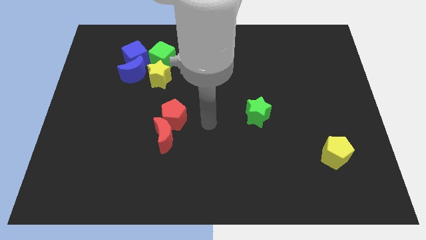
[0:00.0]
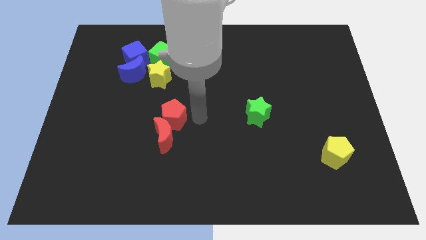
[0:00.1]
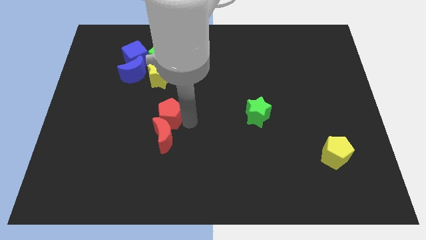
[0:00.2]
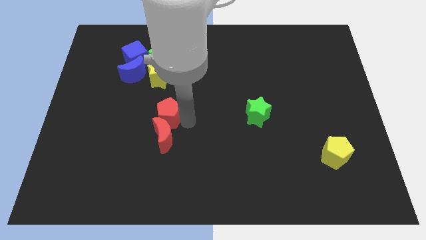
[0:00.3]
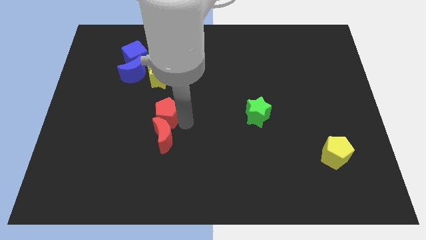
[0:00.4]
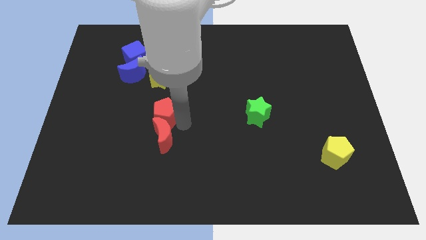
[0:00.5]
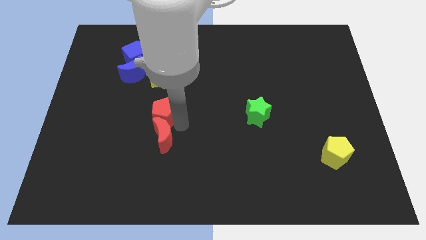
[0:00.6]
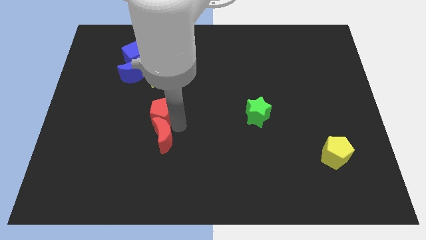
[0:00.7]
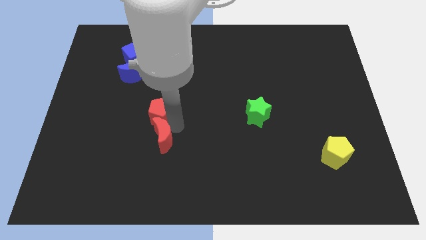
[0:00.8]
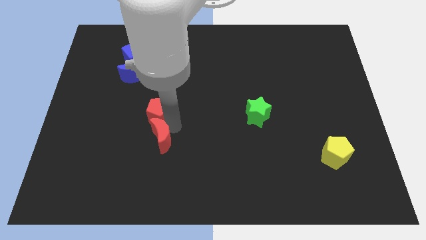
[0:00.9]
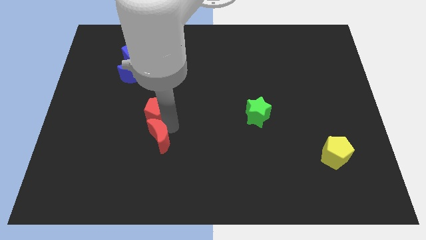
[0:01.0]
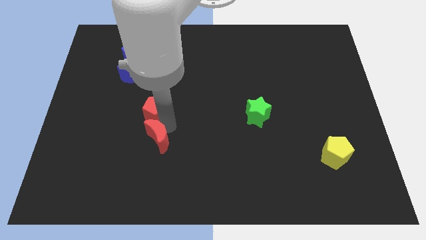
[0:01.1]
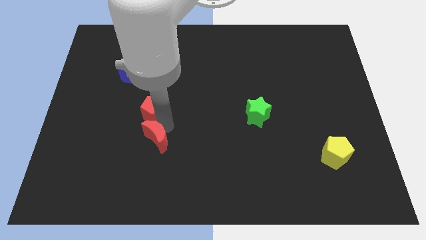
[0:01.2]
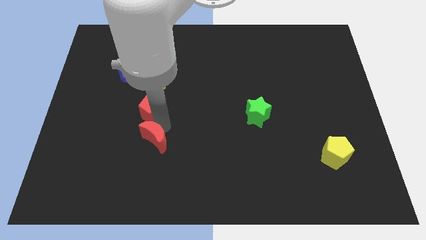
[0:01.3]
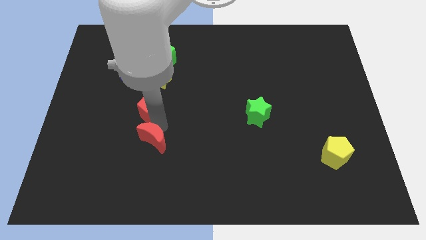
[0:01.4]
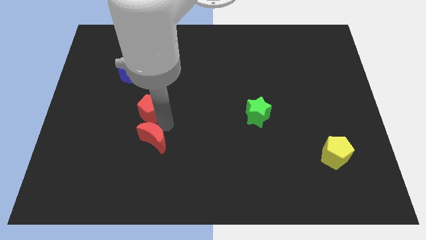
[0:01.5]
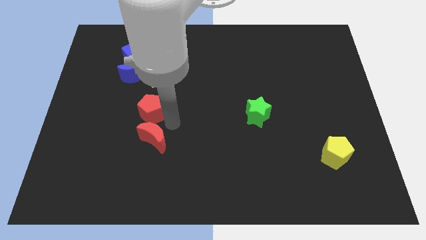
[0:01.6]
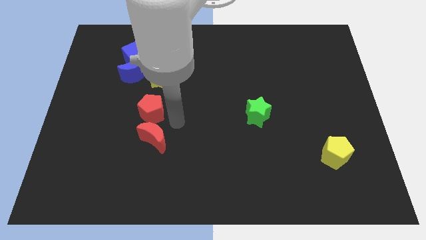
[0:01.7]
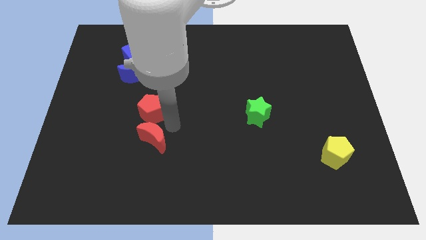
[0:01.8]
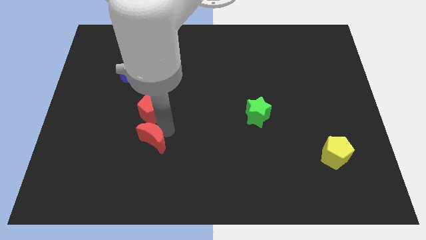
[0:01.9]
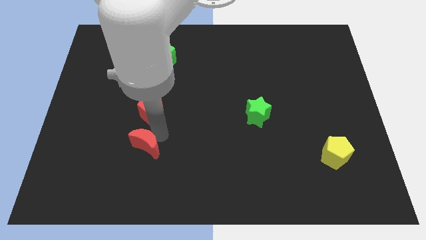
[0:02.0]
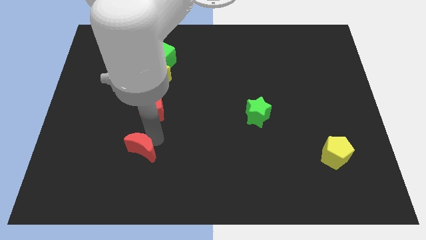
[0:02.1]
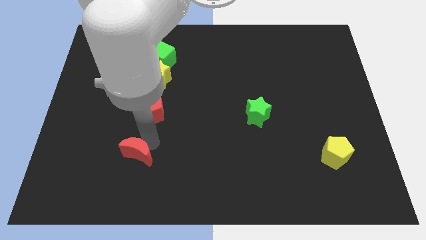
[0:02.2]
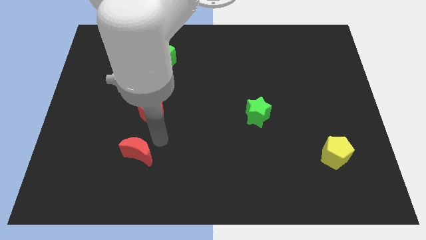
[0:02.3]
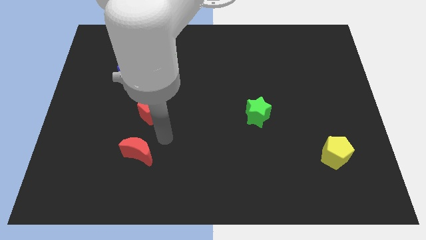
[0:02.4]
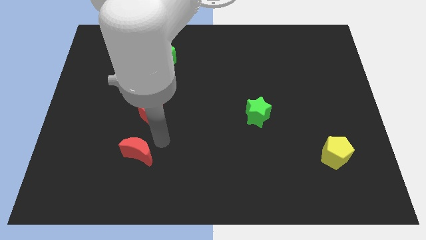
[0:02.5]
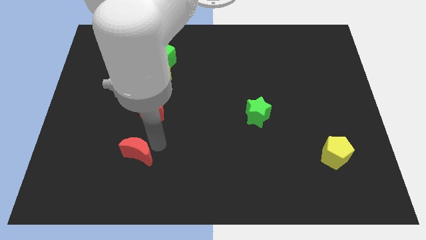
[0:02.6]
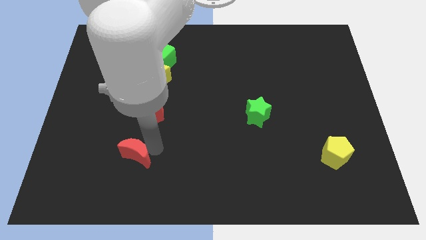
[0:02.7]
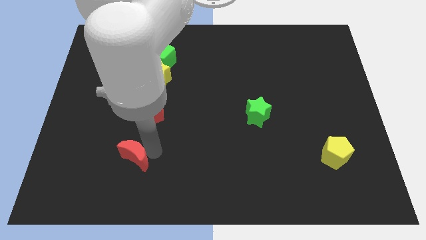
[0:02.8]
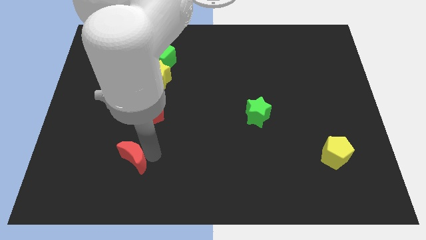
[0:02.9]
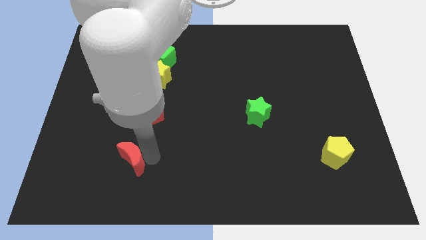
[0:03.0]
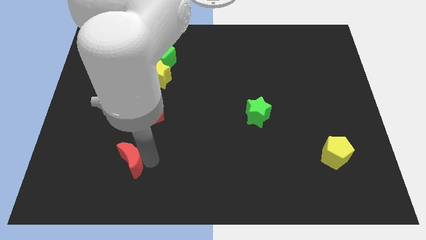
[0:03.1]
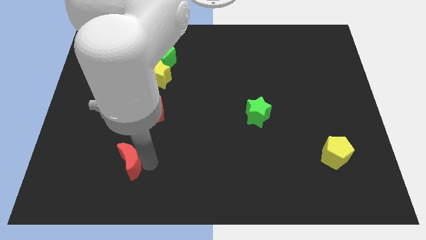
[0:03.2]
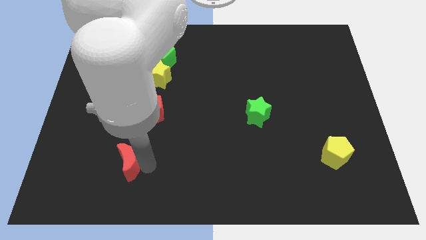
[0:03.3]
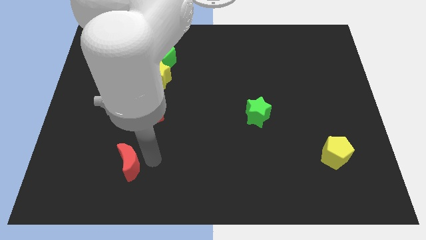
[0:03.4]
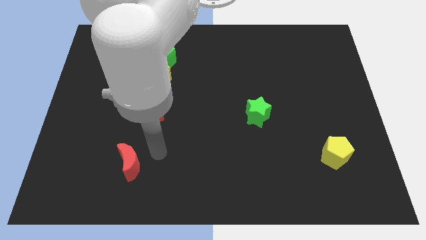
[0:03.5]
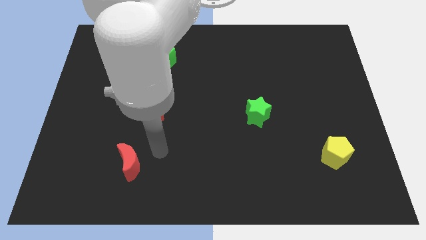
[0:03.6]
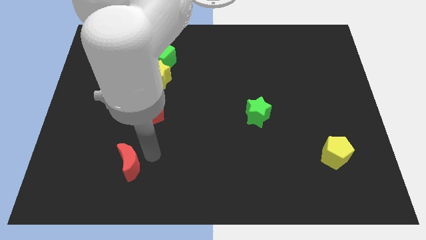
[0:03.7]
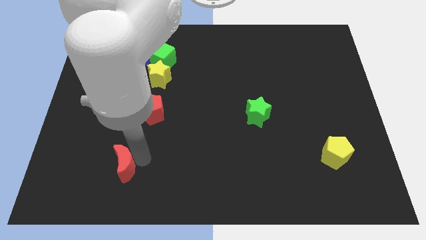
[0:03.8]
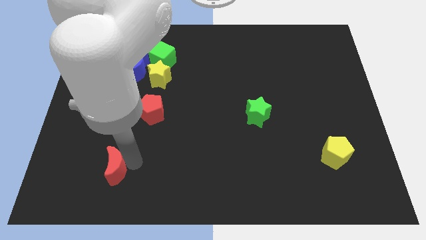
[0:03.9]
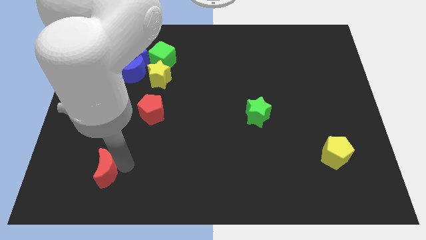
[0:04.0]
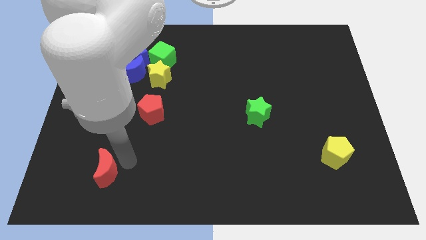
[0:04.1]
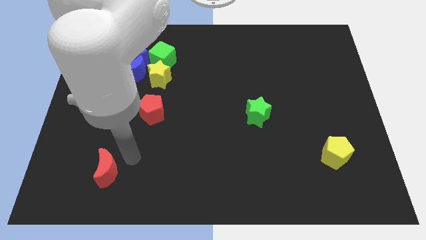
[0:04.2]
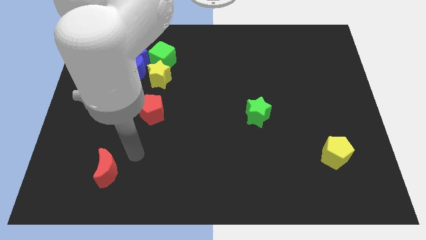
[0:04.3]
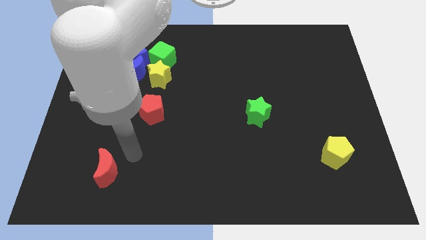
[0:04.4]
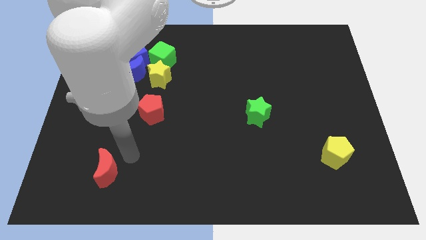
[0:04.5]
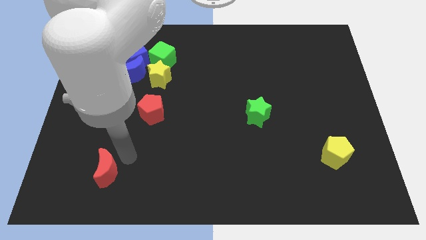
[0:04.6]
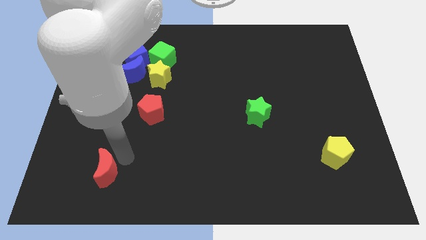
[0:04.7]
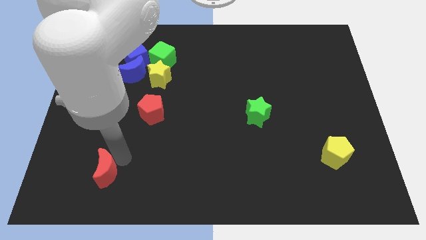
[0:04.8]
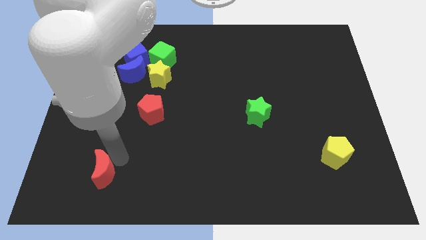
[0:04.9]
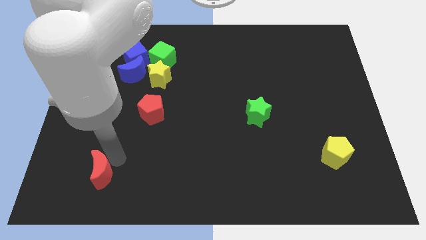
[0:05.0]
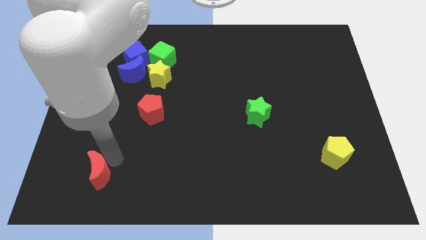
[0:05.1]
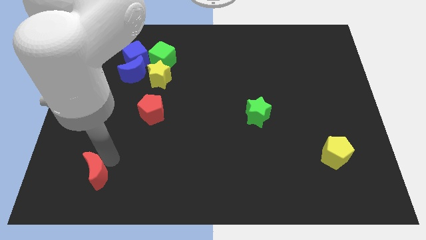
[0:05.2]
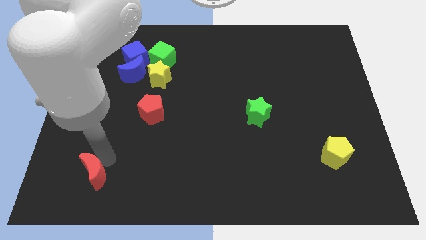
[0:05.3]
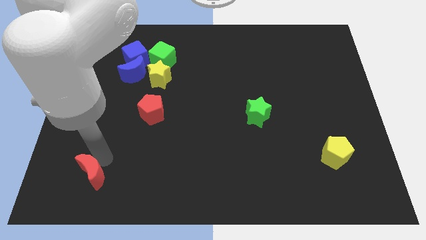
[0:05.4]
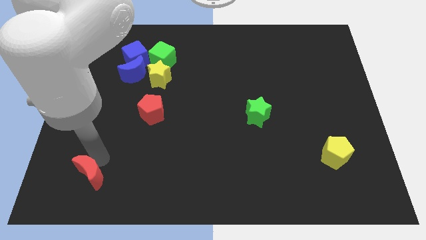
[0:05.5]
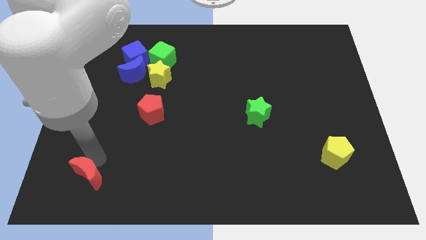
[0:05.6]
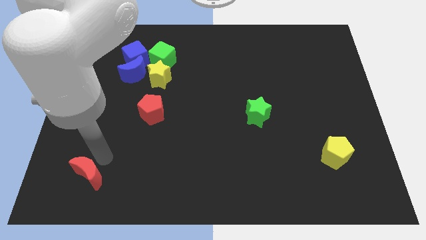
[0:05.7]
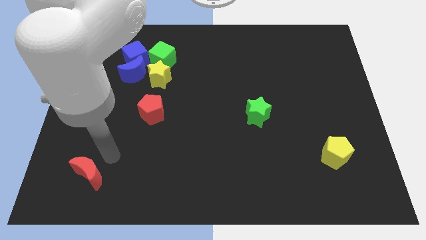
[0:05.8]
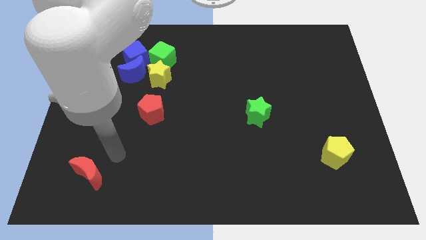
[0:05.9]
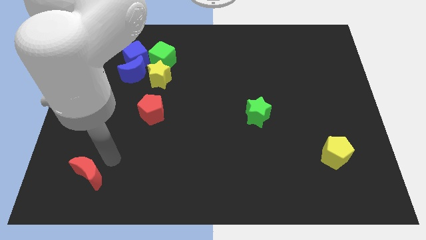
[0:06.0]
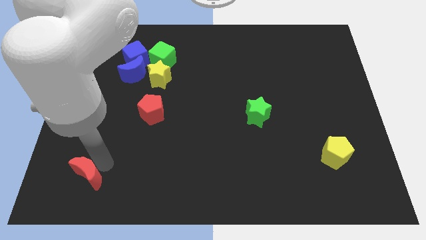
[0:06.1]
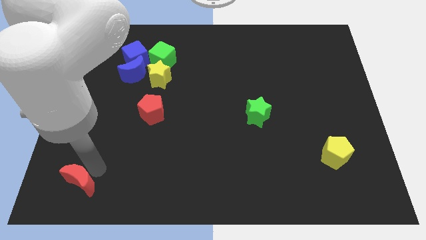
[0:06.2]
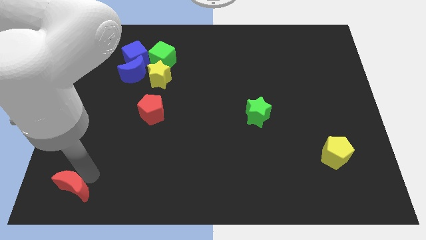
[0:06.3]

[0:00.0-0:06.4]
move the red moon to the bottom left

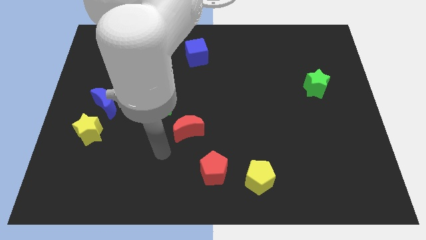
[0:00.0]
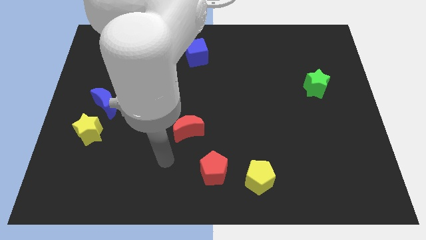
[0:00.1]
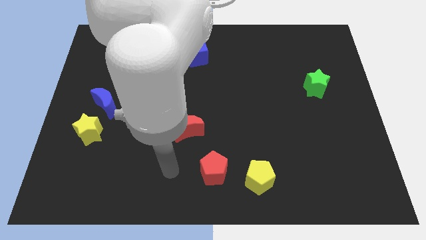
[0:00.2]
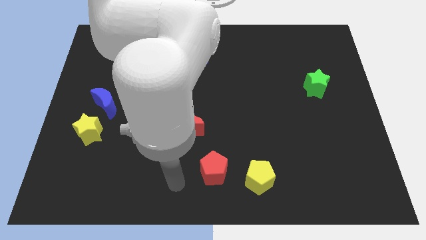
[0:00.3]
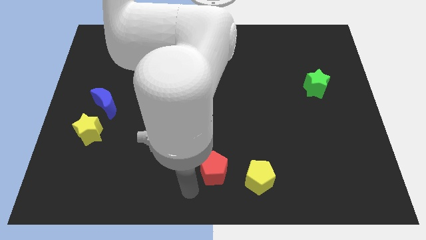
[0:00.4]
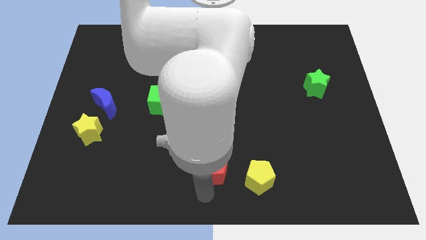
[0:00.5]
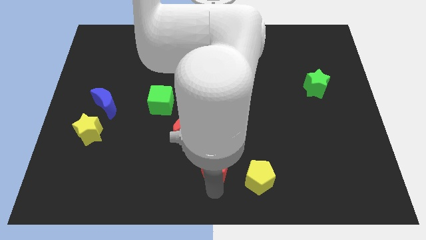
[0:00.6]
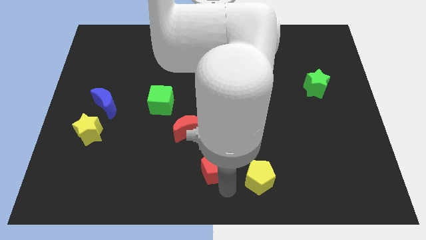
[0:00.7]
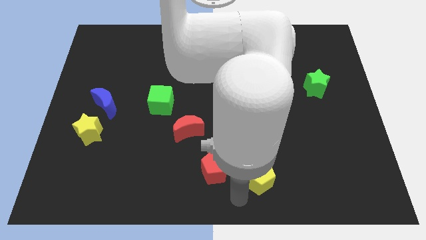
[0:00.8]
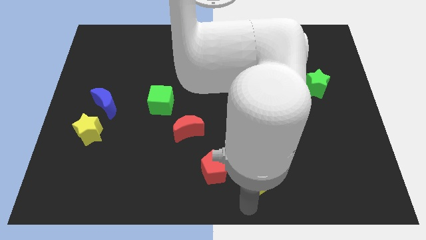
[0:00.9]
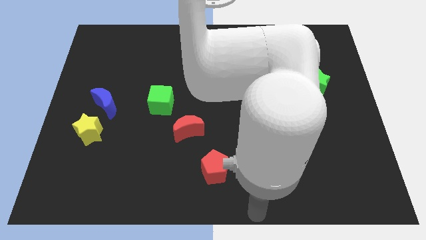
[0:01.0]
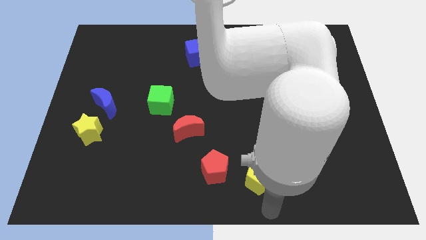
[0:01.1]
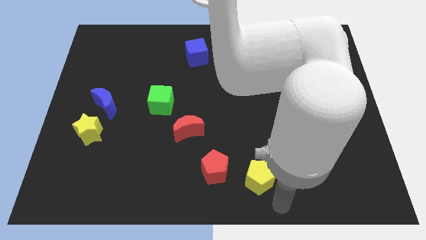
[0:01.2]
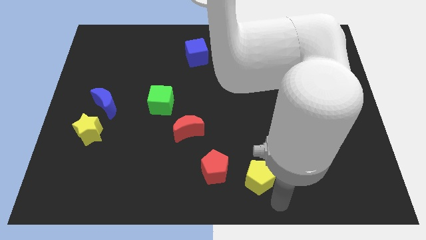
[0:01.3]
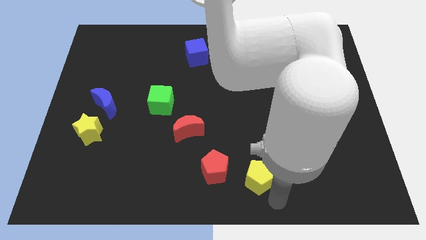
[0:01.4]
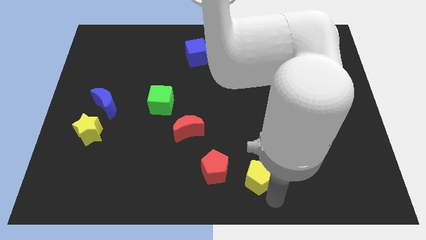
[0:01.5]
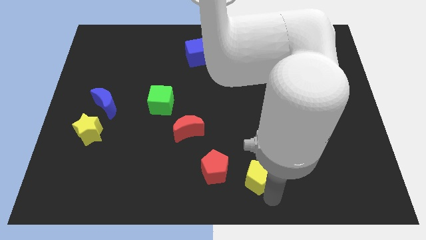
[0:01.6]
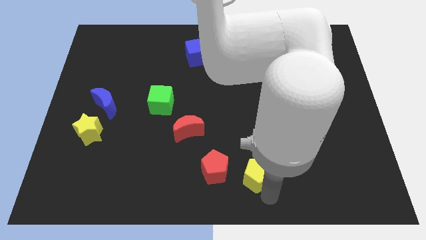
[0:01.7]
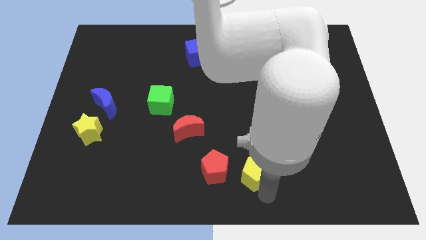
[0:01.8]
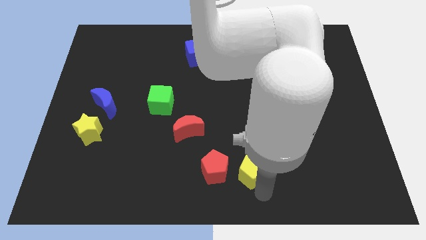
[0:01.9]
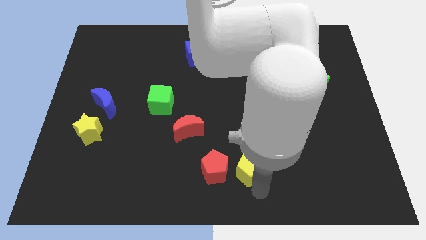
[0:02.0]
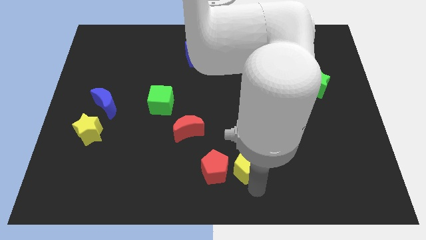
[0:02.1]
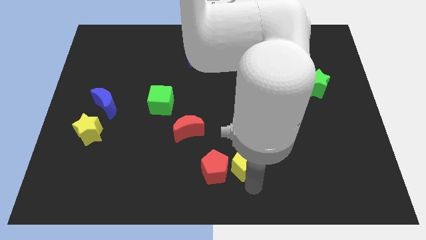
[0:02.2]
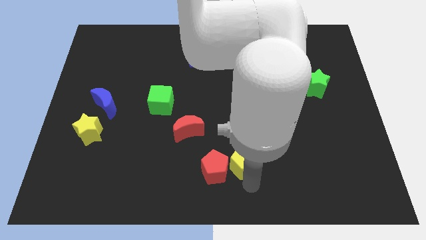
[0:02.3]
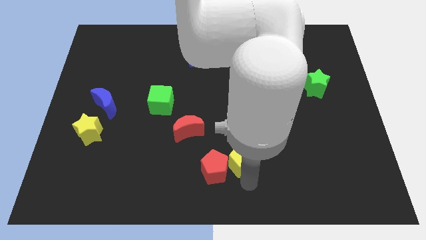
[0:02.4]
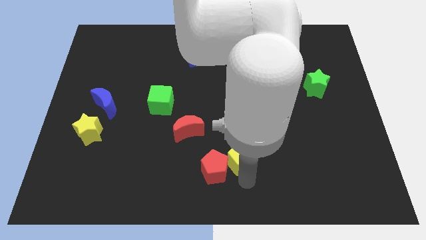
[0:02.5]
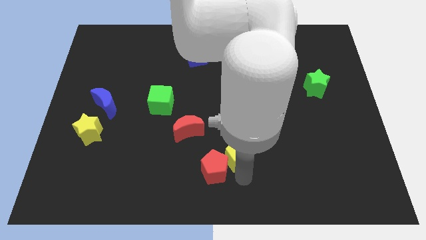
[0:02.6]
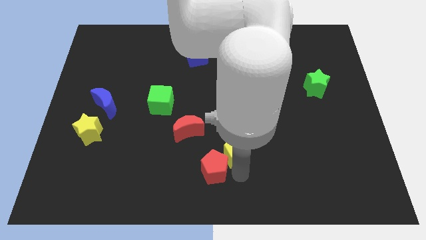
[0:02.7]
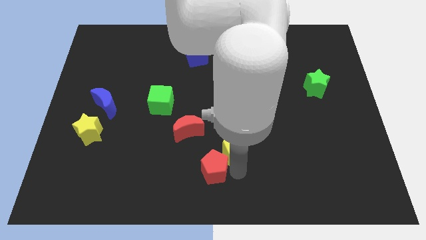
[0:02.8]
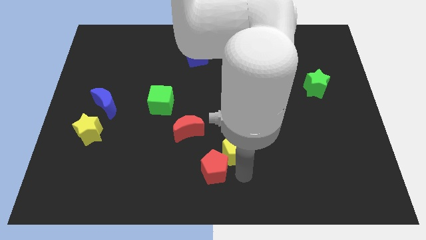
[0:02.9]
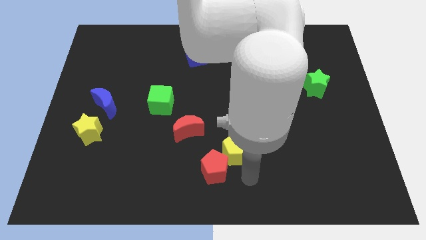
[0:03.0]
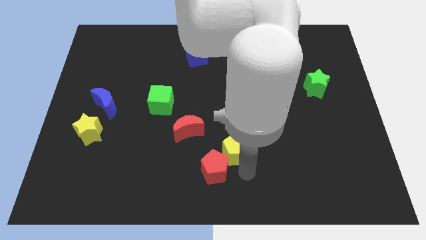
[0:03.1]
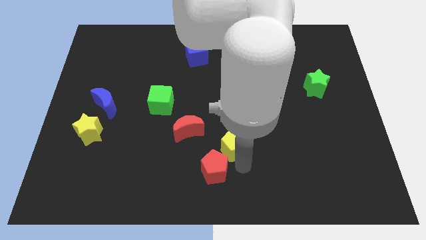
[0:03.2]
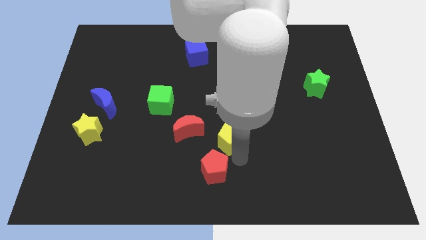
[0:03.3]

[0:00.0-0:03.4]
slide the yellow pentagon to the center of the board
